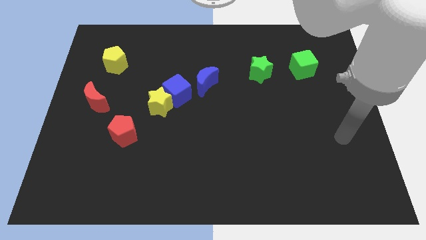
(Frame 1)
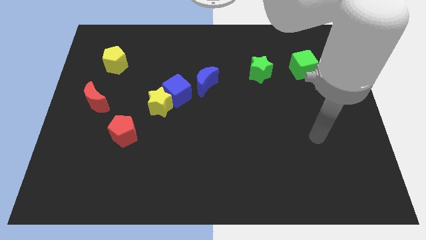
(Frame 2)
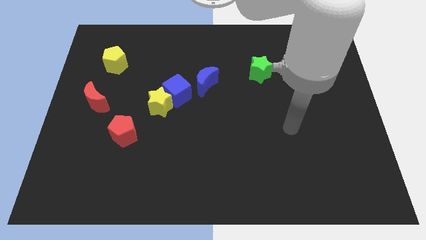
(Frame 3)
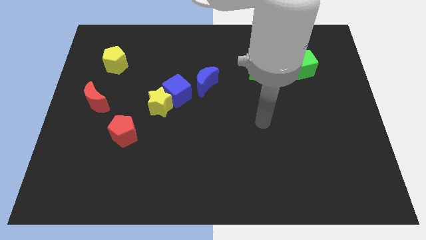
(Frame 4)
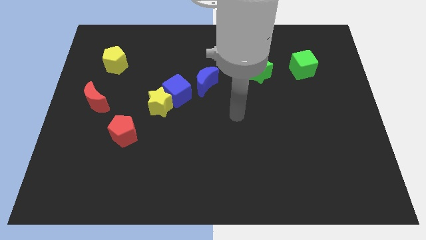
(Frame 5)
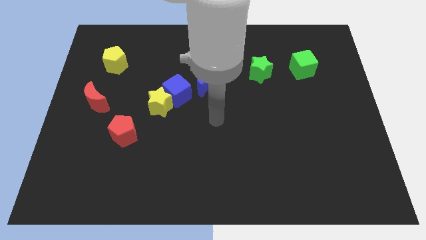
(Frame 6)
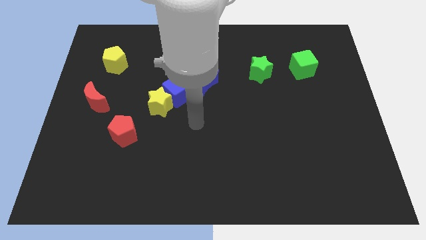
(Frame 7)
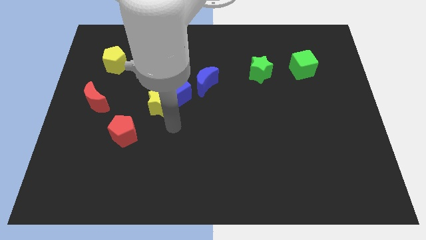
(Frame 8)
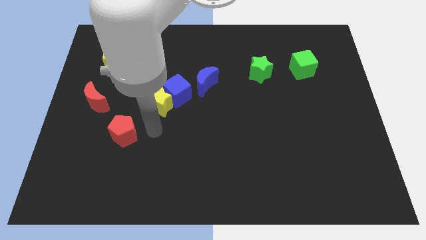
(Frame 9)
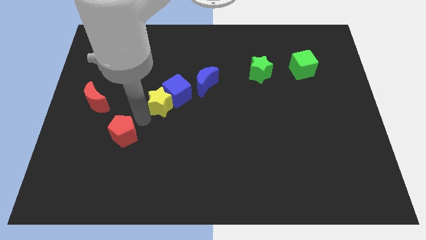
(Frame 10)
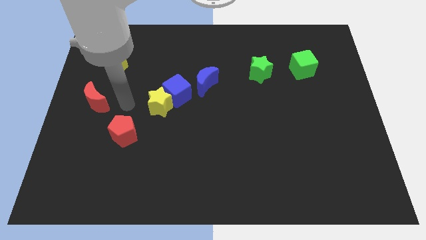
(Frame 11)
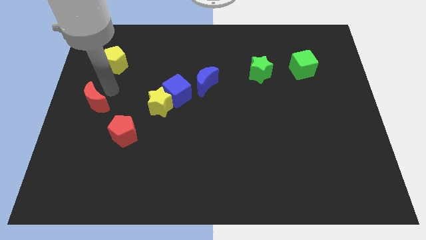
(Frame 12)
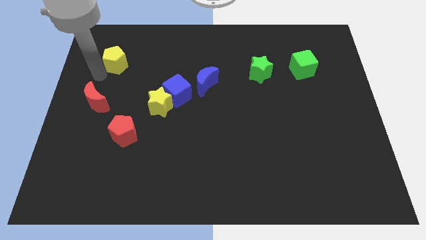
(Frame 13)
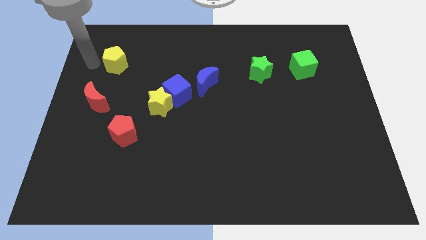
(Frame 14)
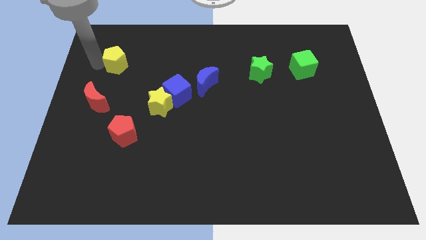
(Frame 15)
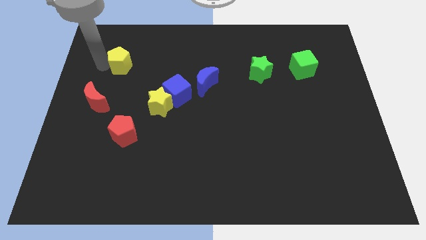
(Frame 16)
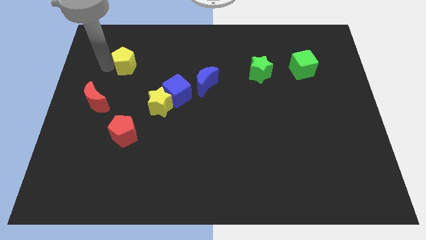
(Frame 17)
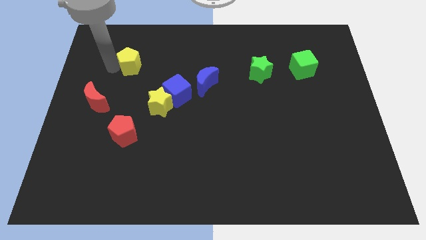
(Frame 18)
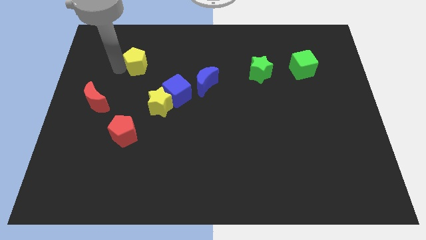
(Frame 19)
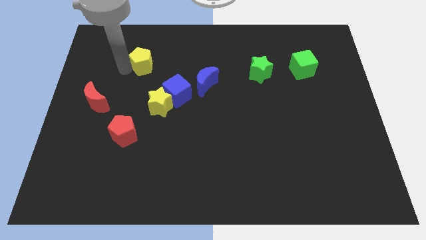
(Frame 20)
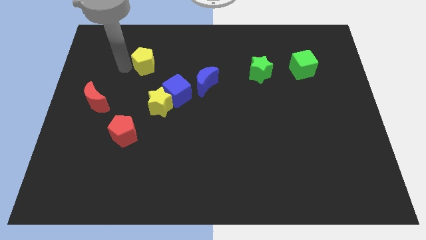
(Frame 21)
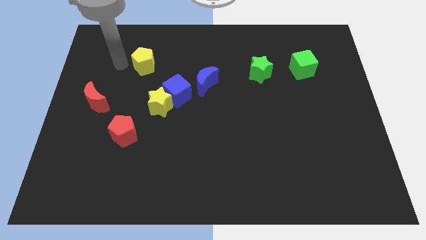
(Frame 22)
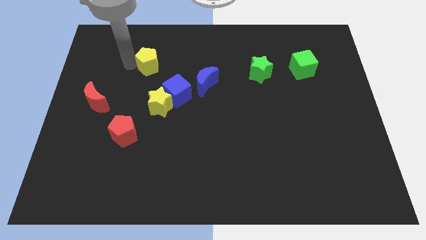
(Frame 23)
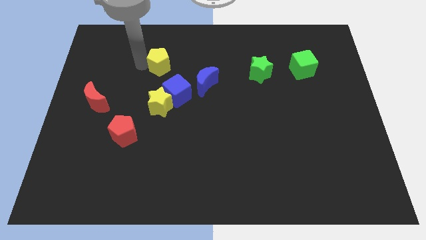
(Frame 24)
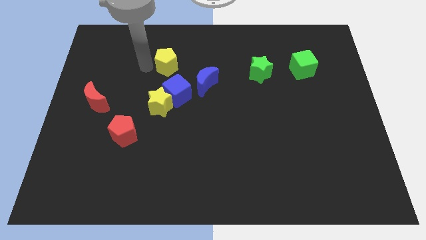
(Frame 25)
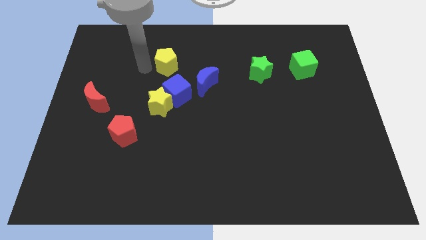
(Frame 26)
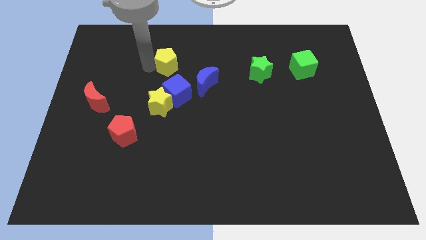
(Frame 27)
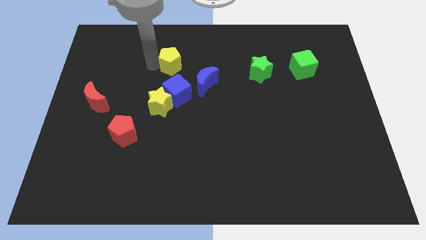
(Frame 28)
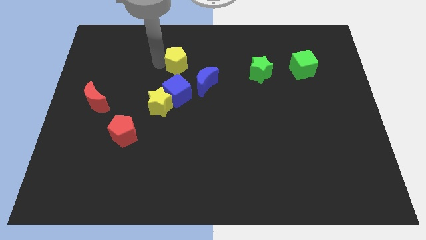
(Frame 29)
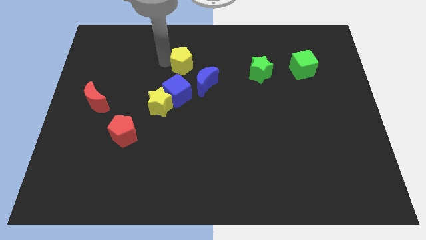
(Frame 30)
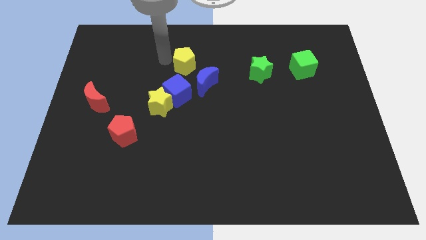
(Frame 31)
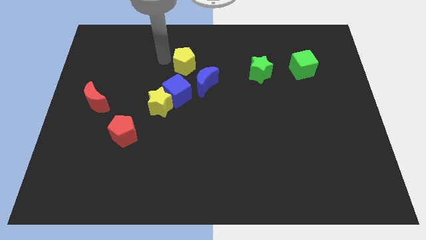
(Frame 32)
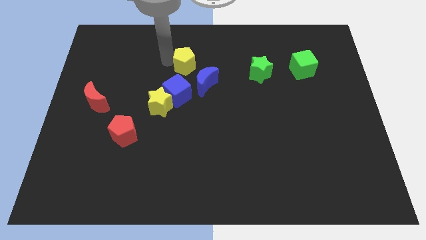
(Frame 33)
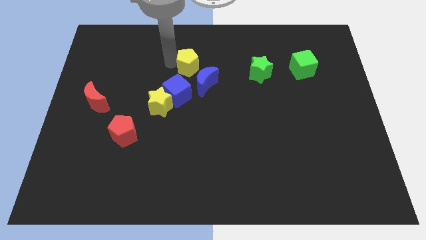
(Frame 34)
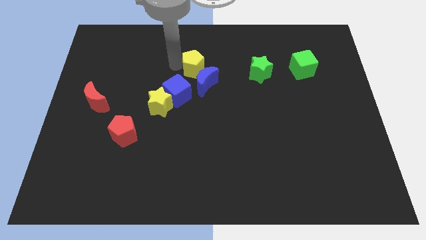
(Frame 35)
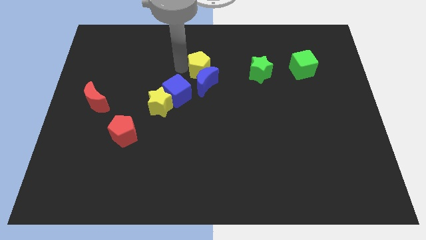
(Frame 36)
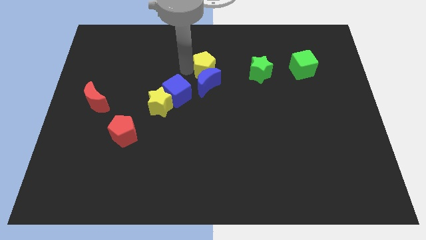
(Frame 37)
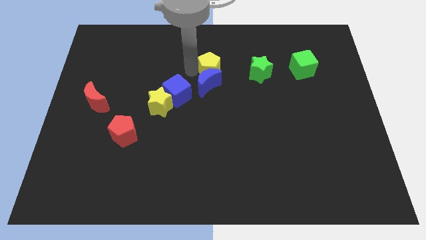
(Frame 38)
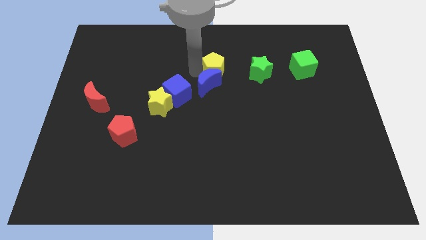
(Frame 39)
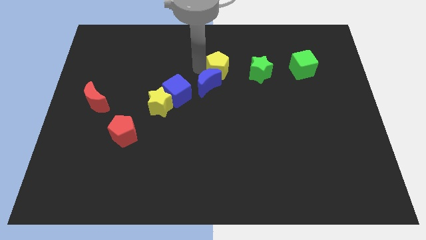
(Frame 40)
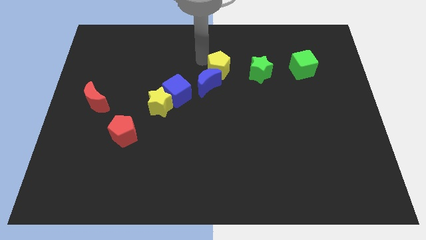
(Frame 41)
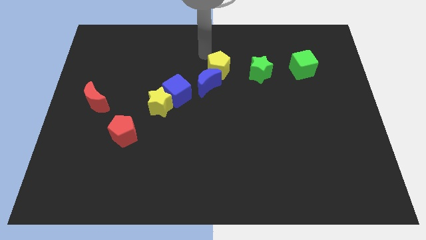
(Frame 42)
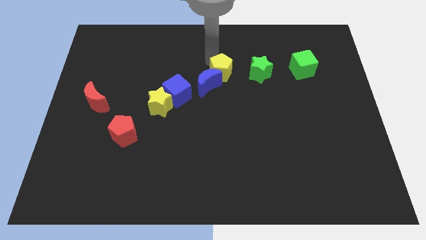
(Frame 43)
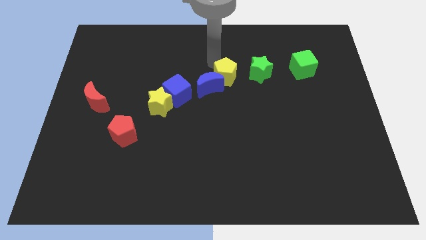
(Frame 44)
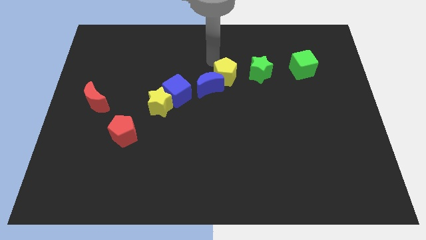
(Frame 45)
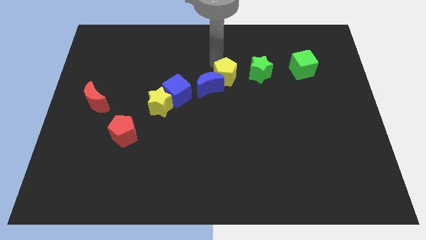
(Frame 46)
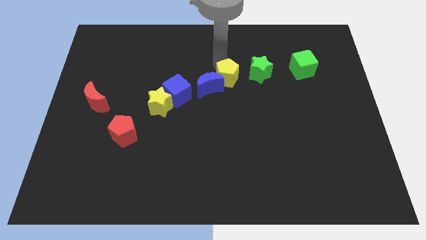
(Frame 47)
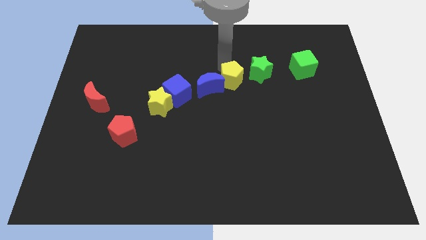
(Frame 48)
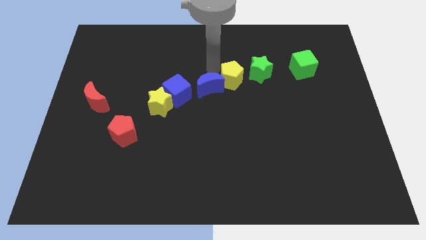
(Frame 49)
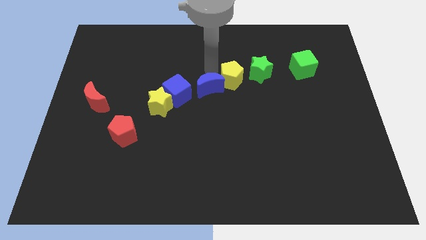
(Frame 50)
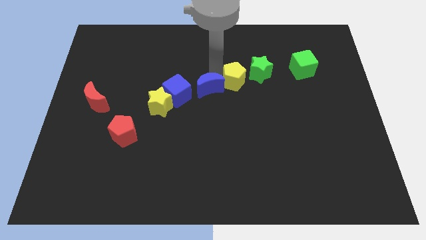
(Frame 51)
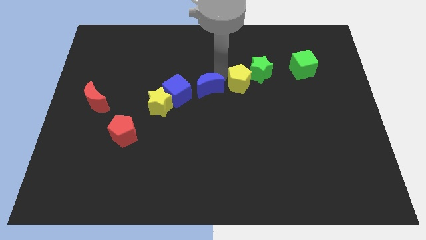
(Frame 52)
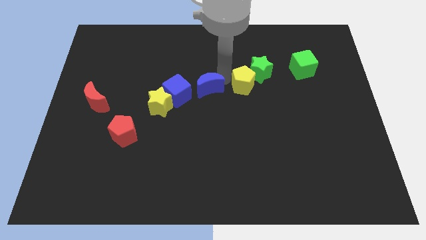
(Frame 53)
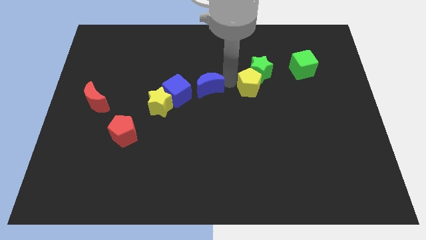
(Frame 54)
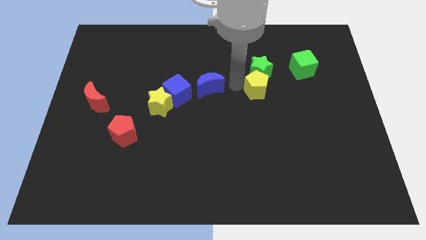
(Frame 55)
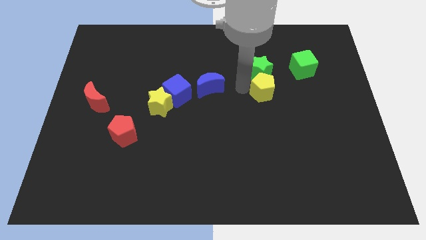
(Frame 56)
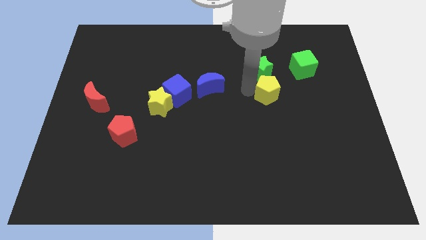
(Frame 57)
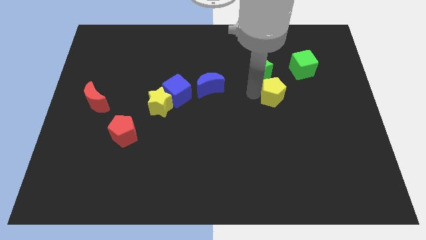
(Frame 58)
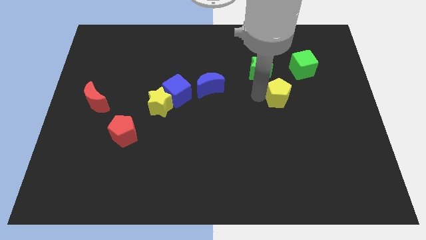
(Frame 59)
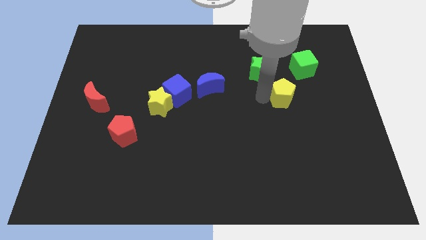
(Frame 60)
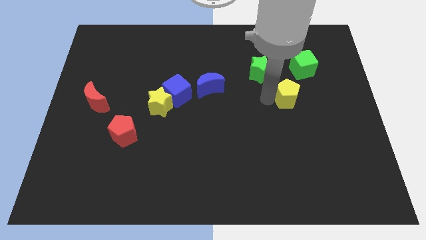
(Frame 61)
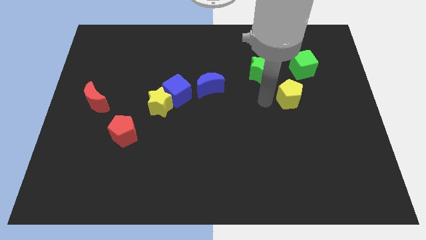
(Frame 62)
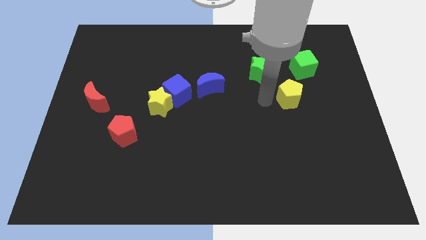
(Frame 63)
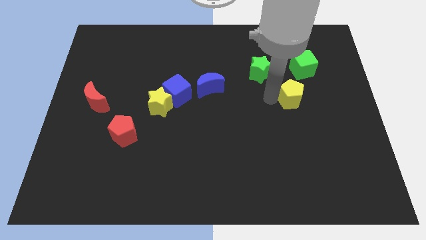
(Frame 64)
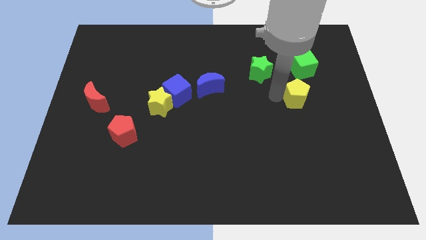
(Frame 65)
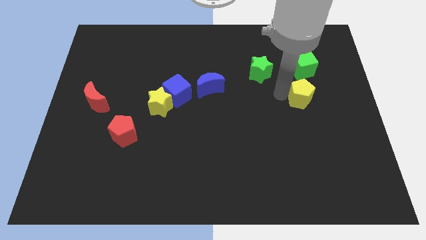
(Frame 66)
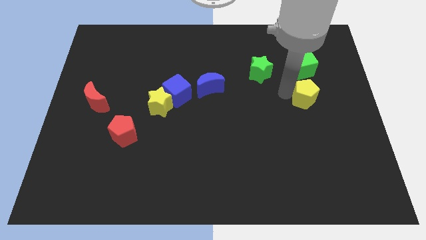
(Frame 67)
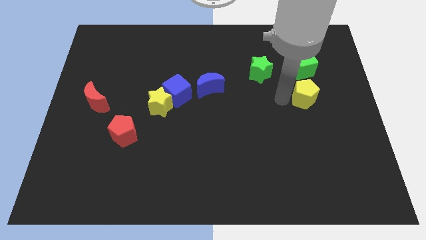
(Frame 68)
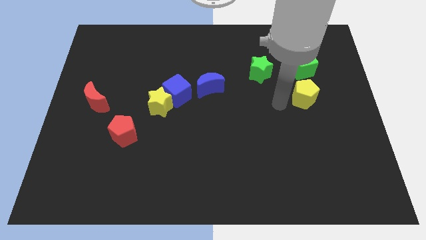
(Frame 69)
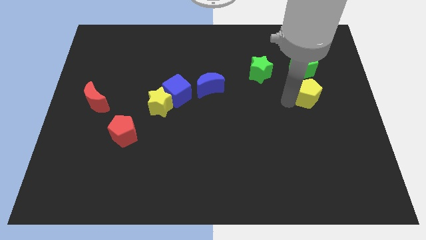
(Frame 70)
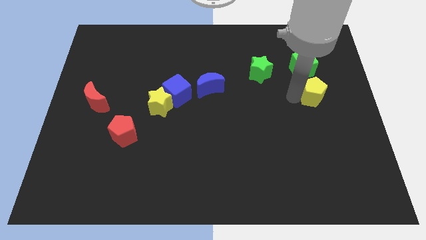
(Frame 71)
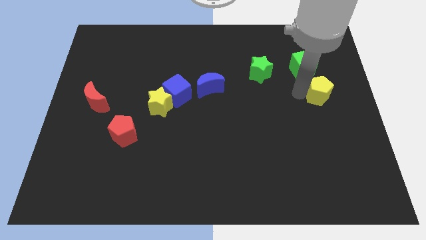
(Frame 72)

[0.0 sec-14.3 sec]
push the yellow pentagon to the center right
